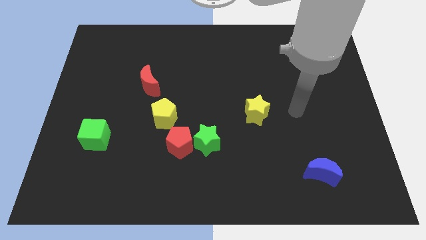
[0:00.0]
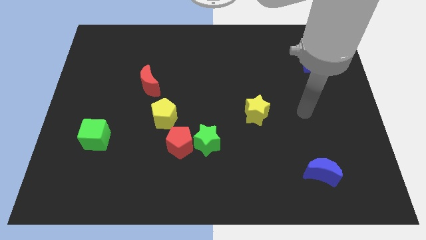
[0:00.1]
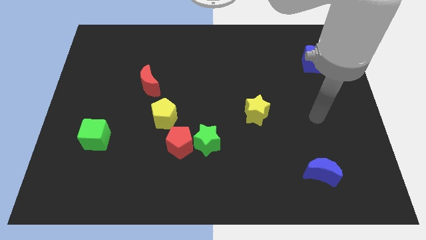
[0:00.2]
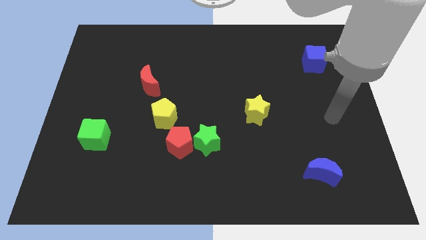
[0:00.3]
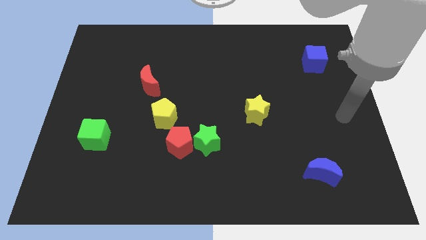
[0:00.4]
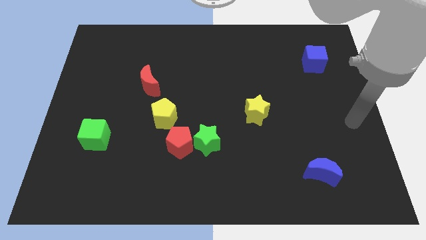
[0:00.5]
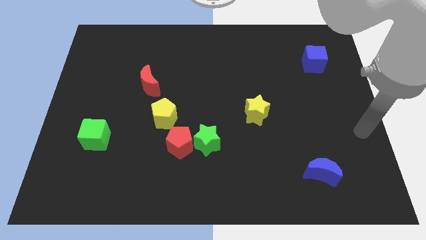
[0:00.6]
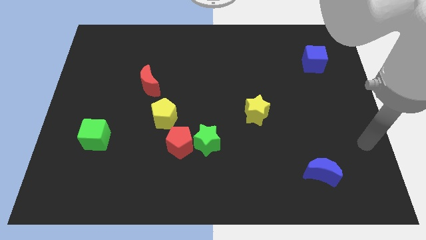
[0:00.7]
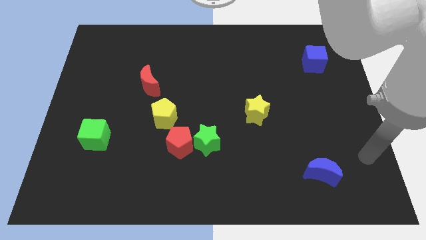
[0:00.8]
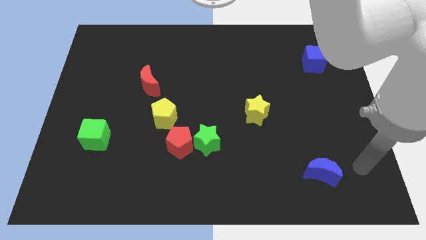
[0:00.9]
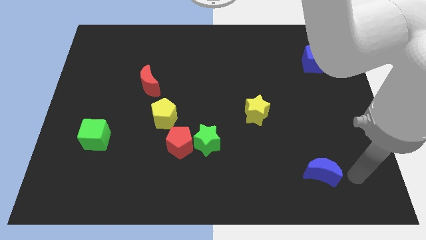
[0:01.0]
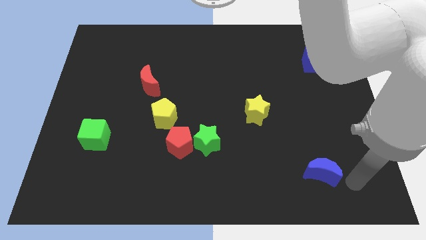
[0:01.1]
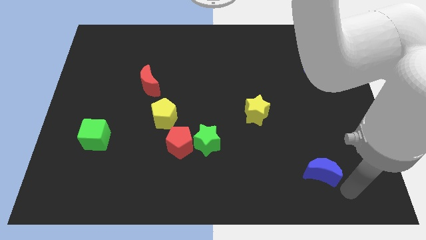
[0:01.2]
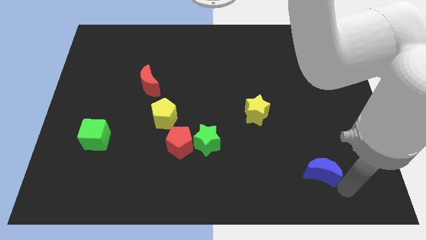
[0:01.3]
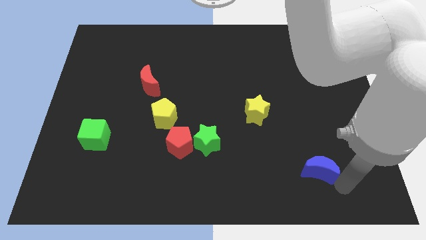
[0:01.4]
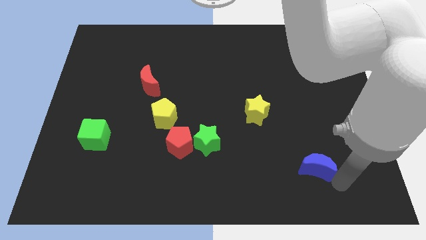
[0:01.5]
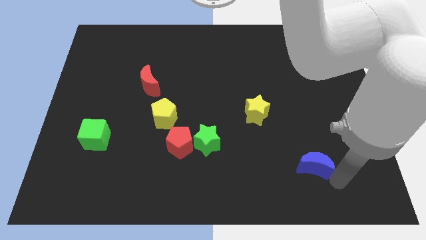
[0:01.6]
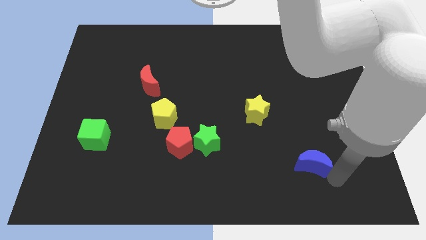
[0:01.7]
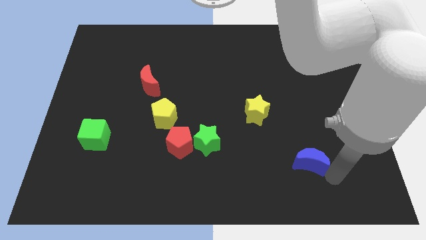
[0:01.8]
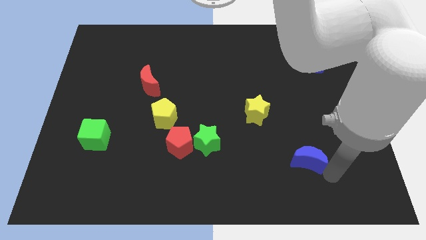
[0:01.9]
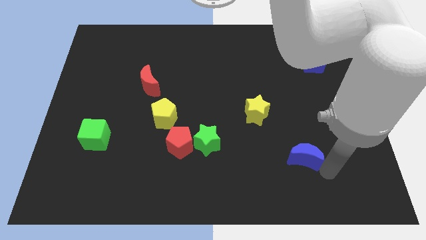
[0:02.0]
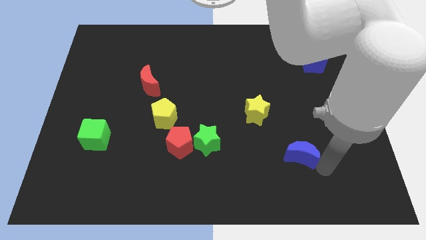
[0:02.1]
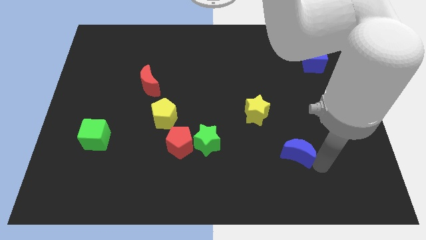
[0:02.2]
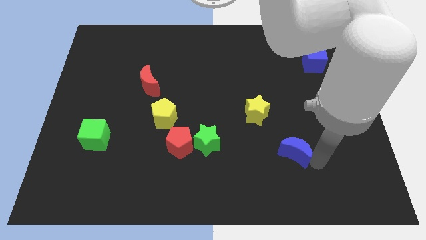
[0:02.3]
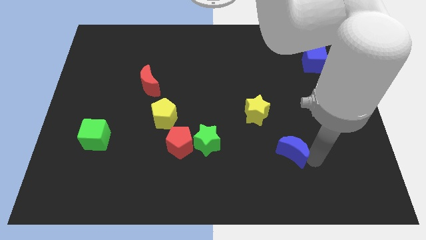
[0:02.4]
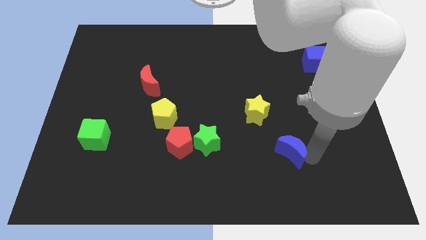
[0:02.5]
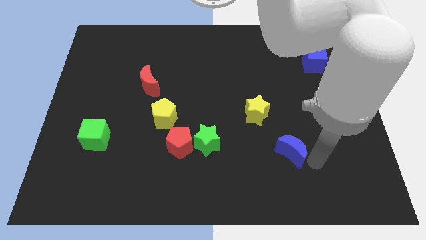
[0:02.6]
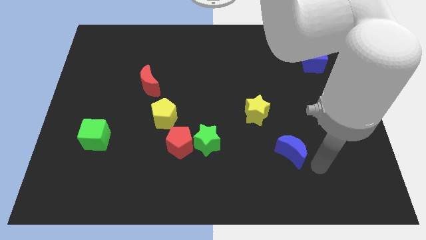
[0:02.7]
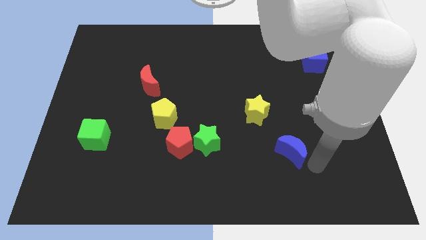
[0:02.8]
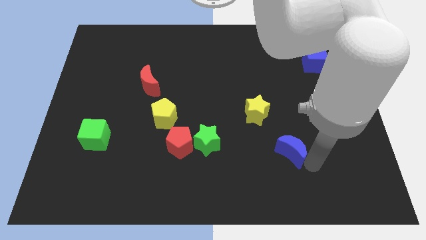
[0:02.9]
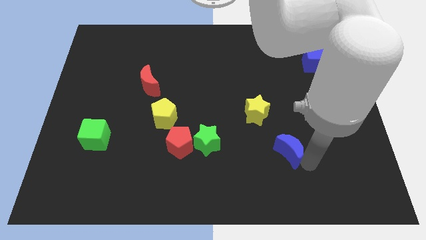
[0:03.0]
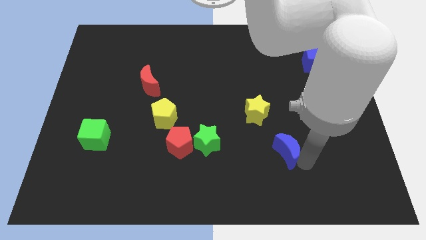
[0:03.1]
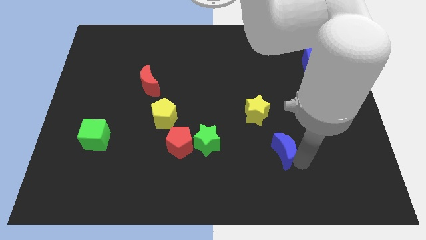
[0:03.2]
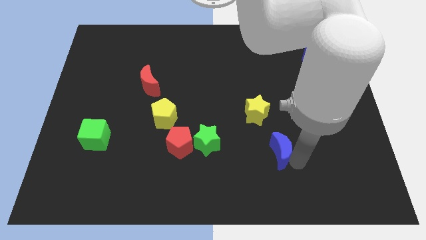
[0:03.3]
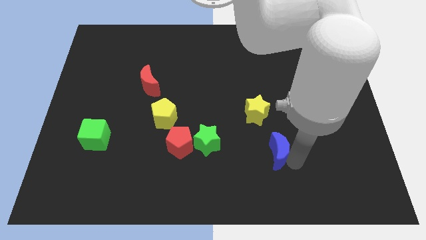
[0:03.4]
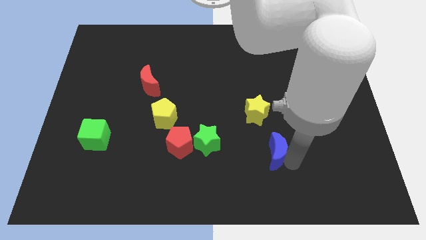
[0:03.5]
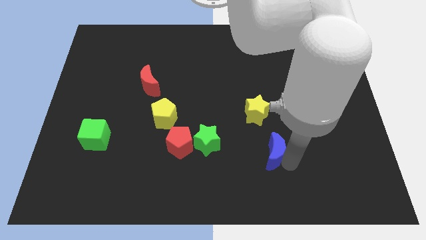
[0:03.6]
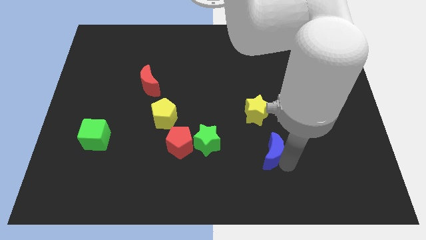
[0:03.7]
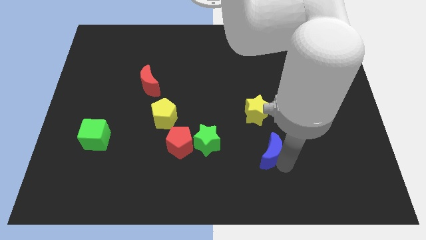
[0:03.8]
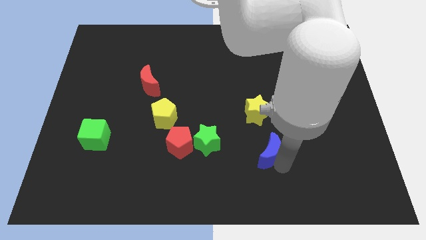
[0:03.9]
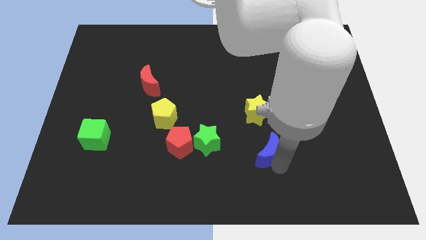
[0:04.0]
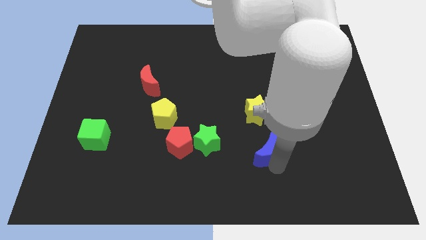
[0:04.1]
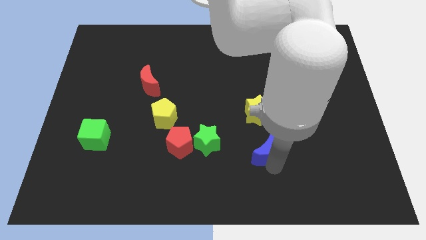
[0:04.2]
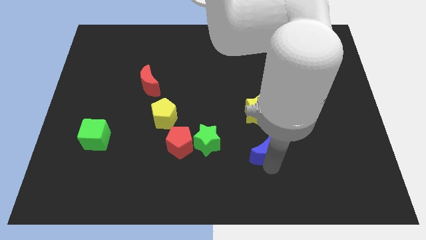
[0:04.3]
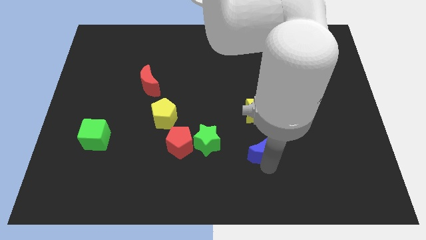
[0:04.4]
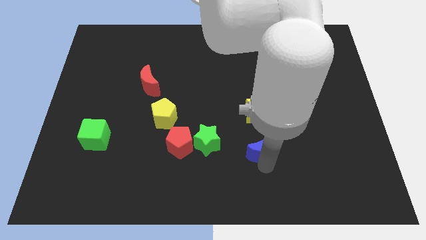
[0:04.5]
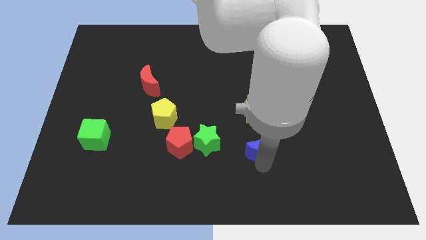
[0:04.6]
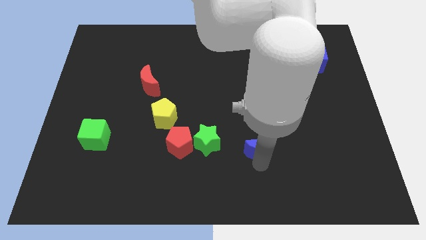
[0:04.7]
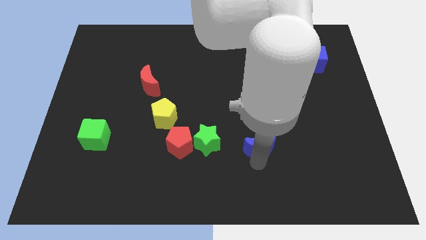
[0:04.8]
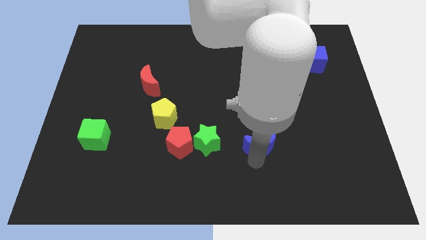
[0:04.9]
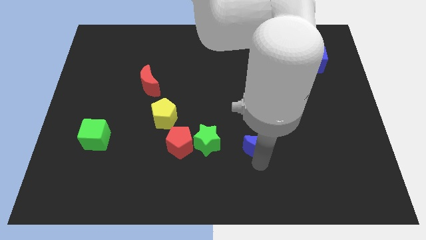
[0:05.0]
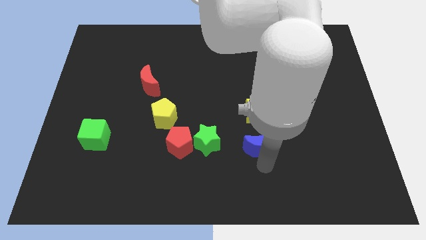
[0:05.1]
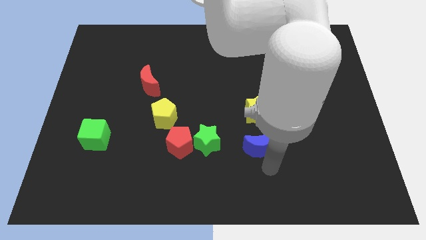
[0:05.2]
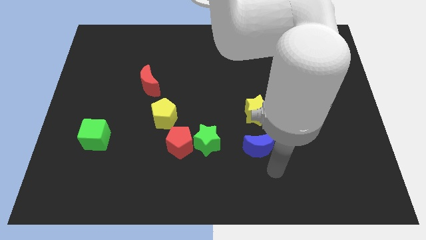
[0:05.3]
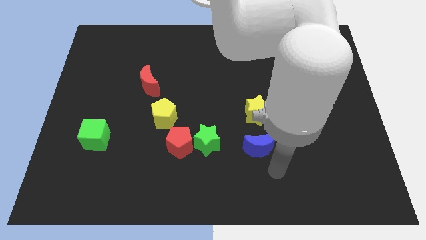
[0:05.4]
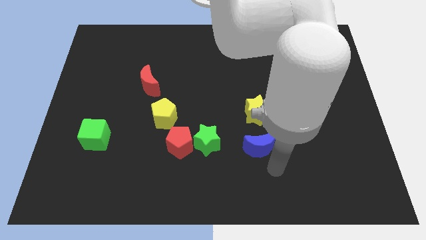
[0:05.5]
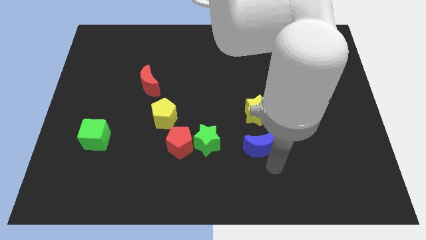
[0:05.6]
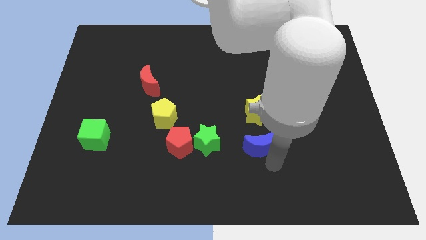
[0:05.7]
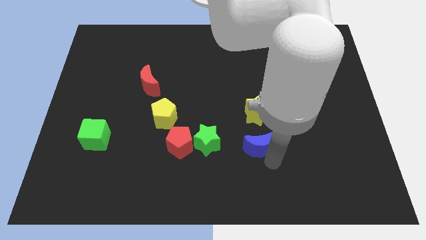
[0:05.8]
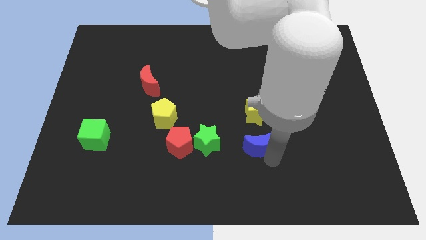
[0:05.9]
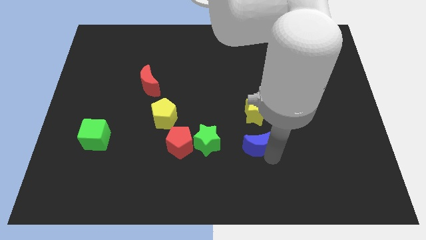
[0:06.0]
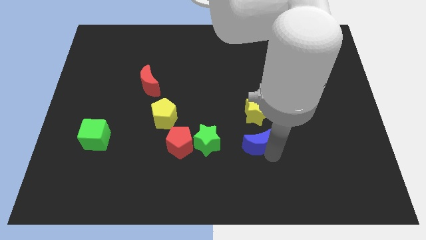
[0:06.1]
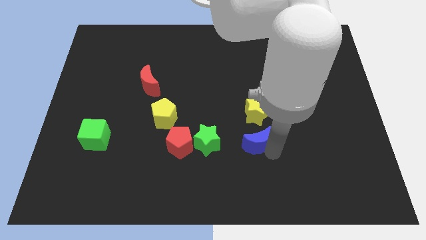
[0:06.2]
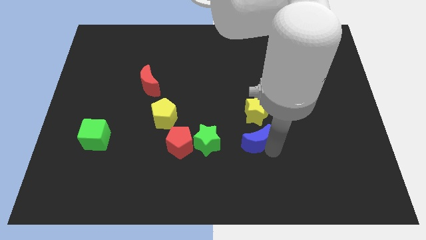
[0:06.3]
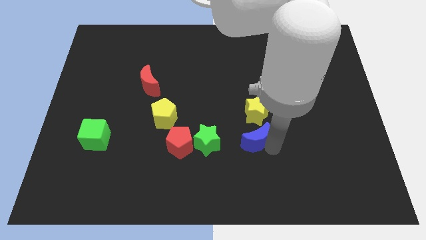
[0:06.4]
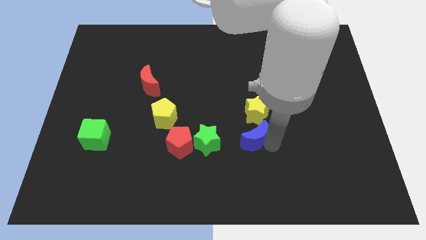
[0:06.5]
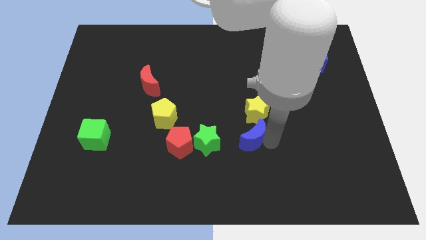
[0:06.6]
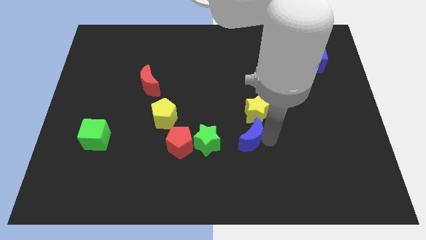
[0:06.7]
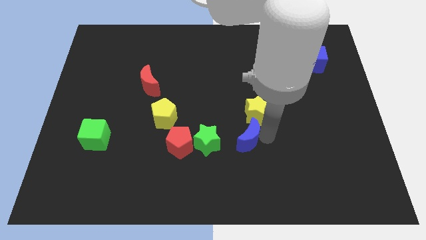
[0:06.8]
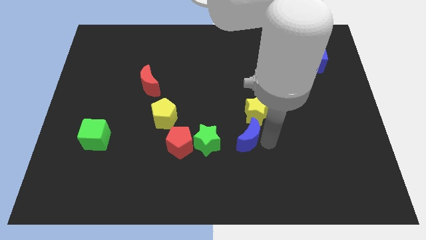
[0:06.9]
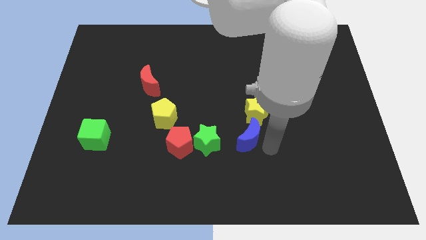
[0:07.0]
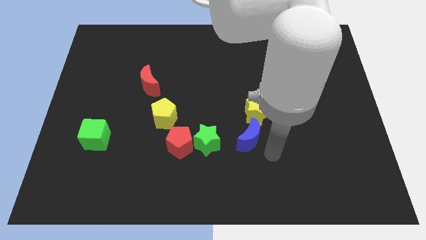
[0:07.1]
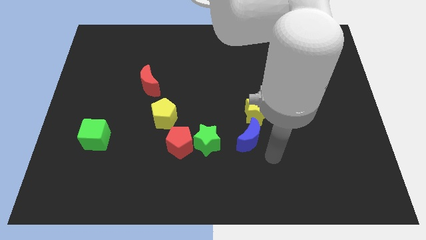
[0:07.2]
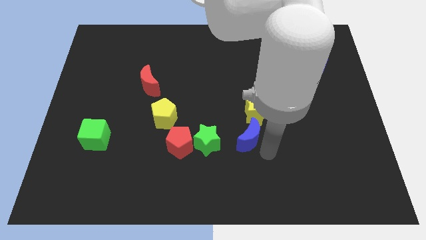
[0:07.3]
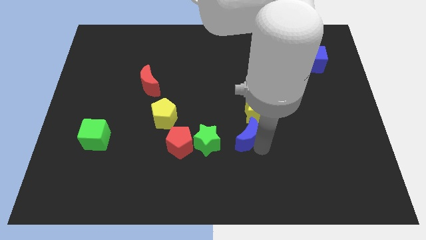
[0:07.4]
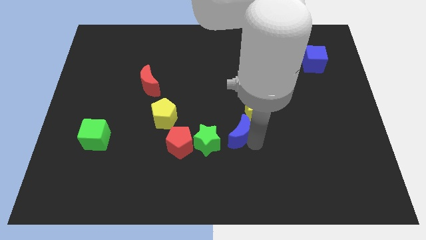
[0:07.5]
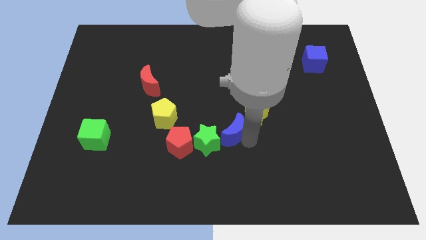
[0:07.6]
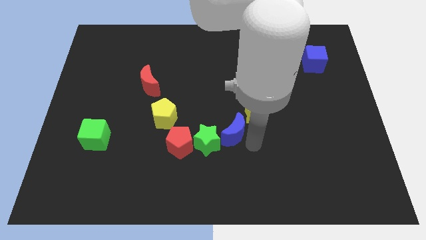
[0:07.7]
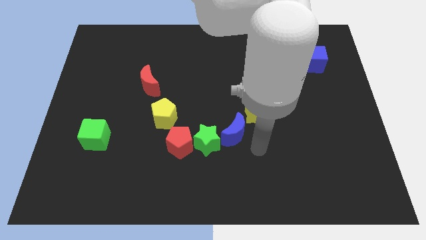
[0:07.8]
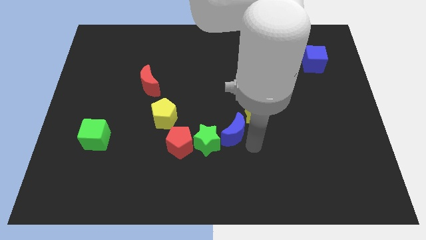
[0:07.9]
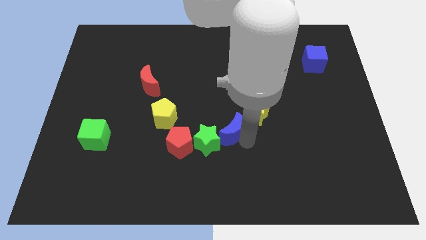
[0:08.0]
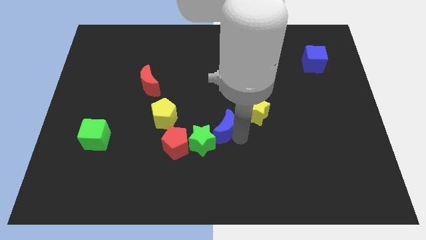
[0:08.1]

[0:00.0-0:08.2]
move the blue moon right of the yellow pentagon
